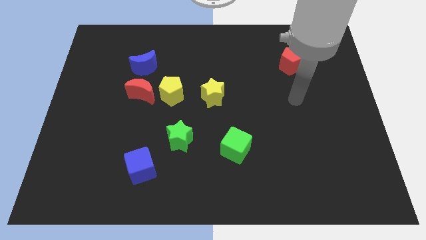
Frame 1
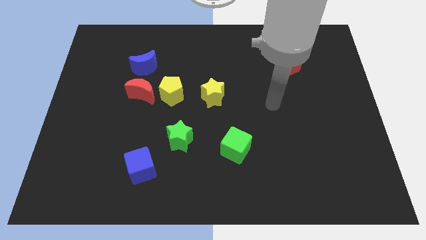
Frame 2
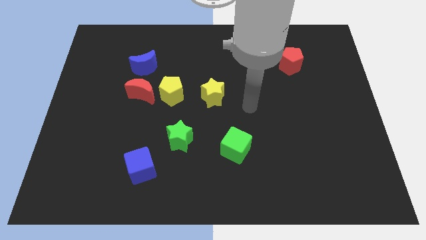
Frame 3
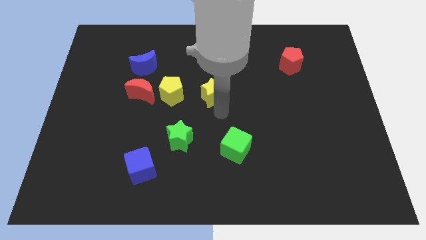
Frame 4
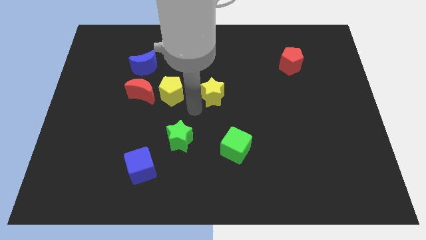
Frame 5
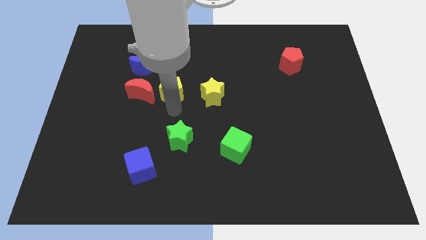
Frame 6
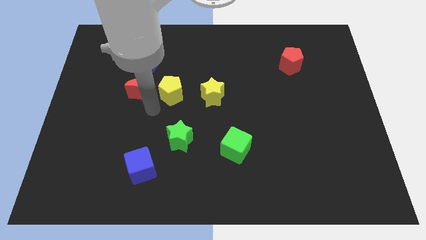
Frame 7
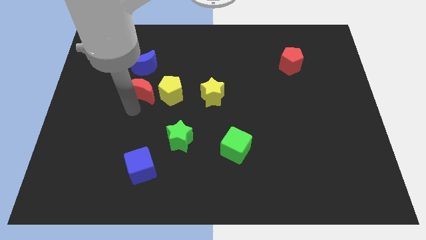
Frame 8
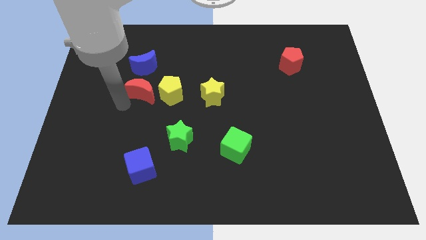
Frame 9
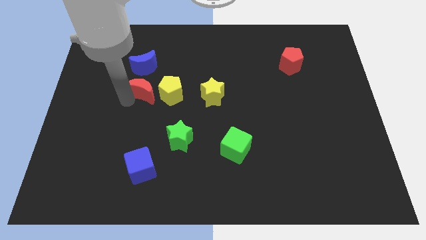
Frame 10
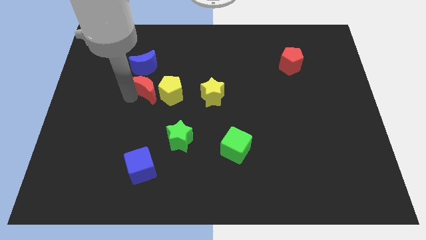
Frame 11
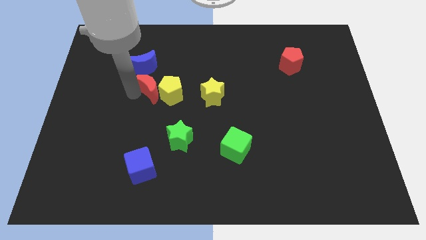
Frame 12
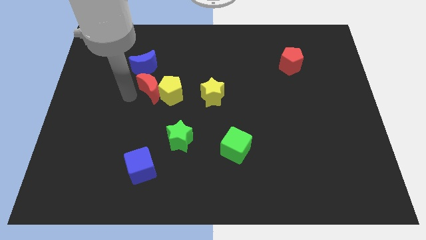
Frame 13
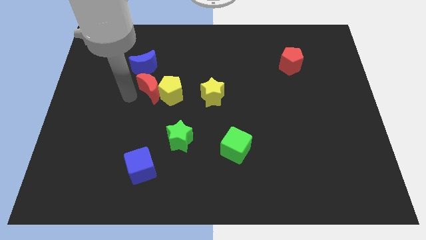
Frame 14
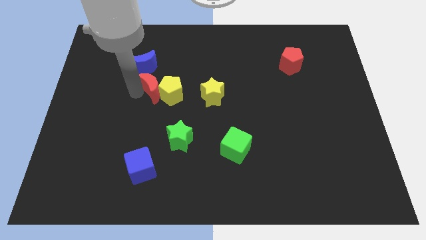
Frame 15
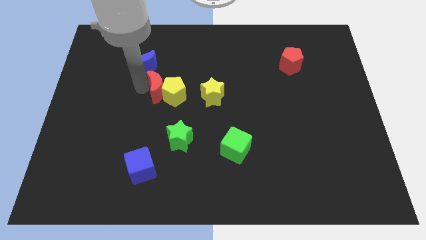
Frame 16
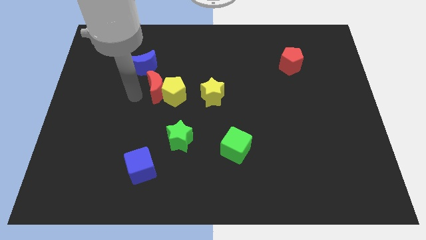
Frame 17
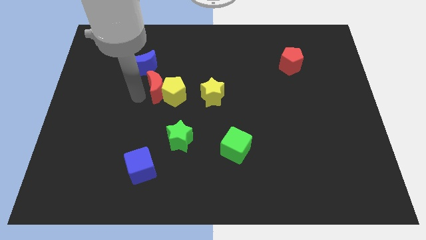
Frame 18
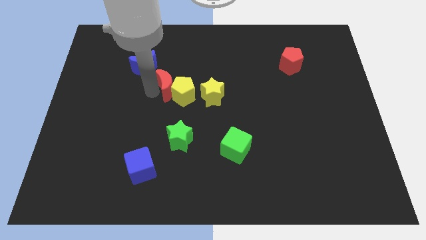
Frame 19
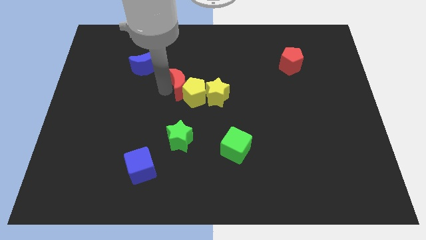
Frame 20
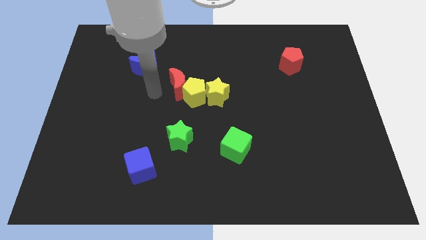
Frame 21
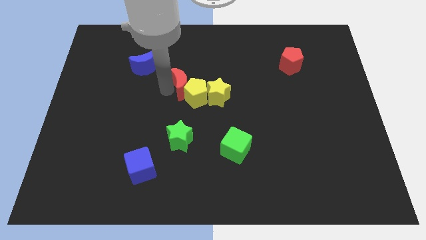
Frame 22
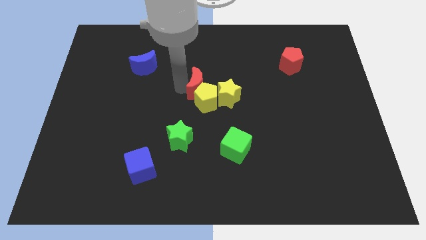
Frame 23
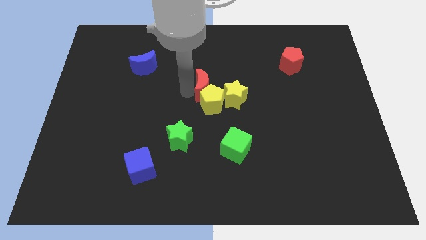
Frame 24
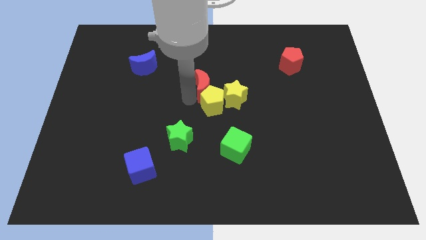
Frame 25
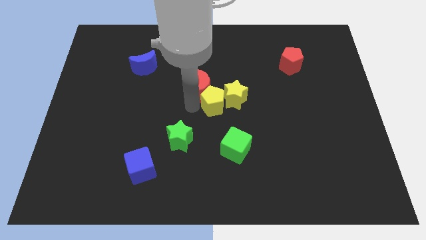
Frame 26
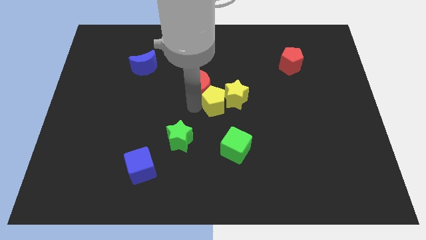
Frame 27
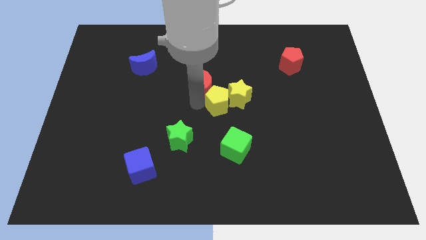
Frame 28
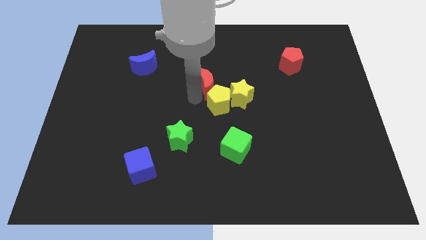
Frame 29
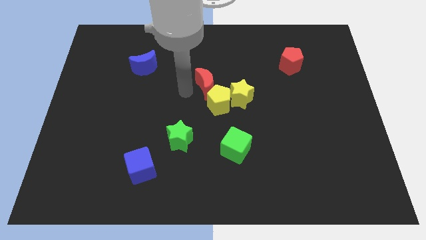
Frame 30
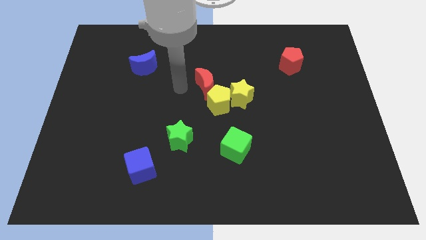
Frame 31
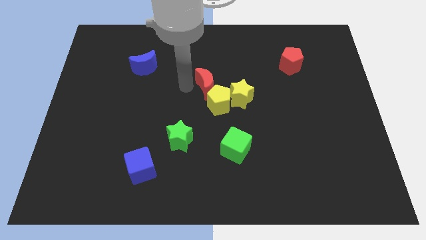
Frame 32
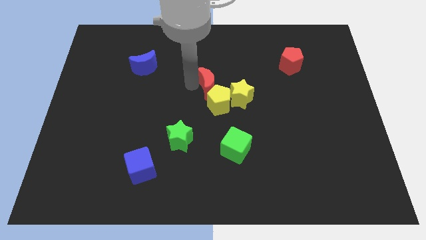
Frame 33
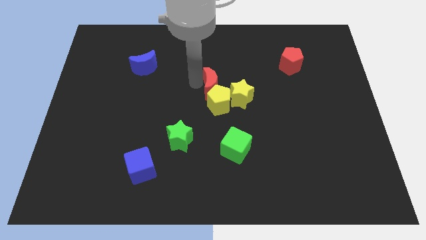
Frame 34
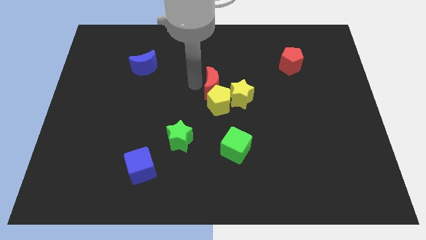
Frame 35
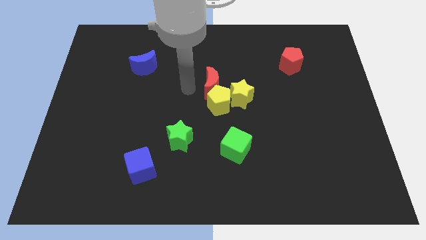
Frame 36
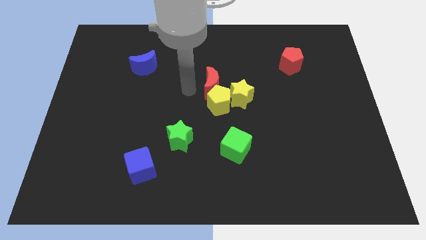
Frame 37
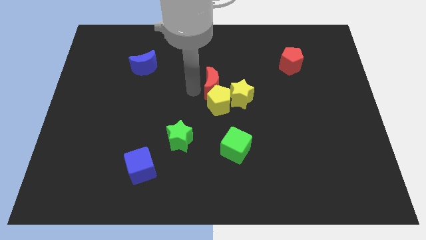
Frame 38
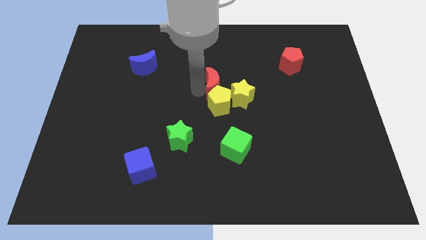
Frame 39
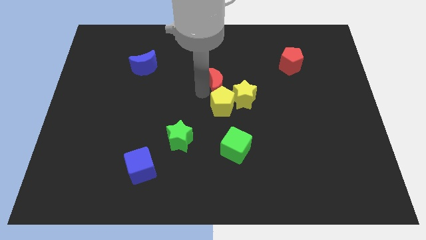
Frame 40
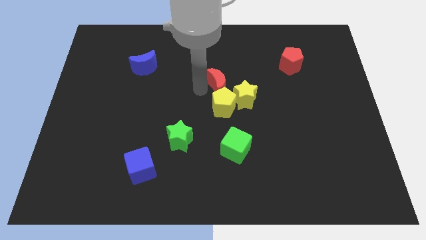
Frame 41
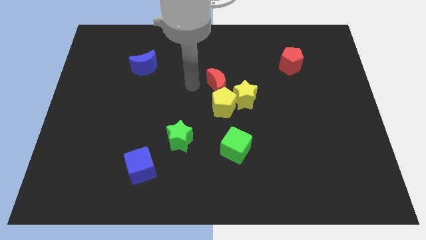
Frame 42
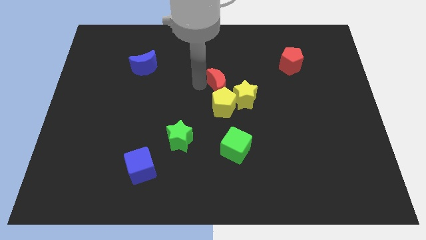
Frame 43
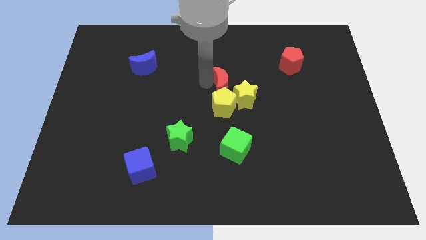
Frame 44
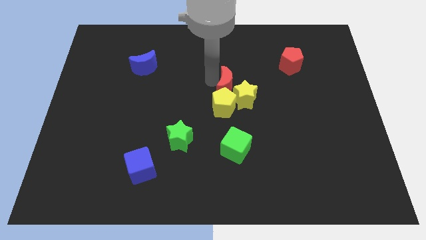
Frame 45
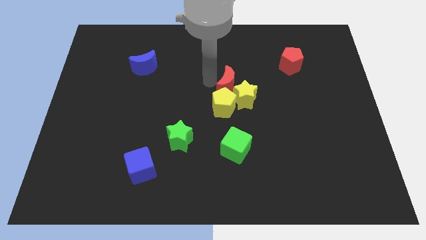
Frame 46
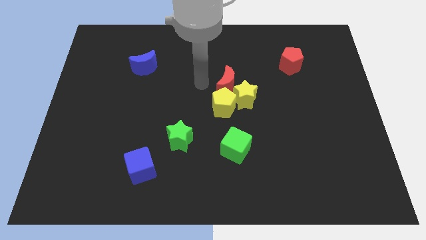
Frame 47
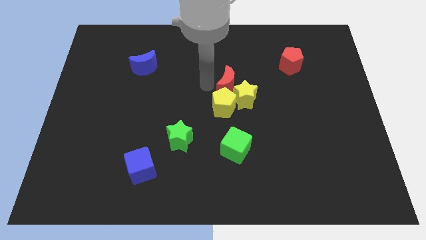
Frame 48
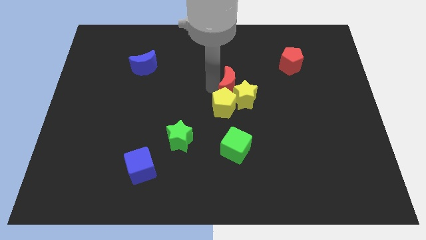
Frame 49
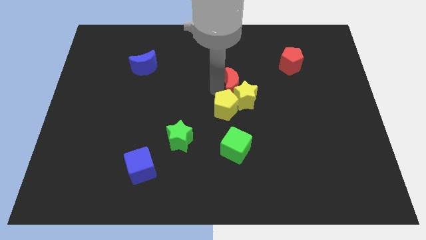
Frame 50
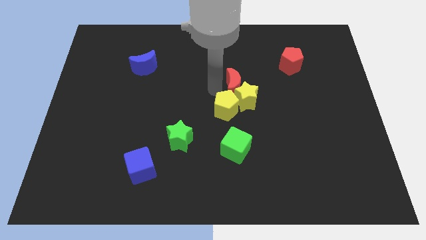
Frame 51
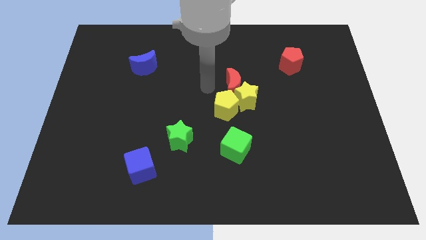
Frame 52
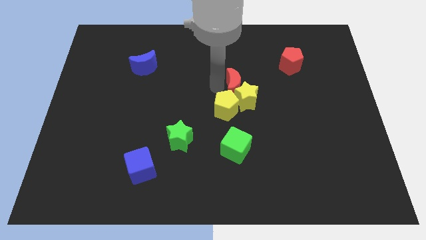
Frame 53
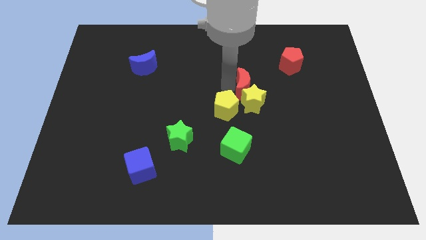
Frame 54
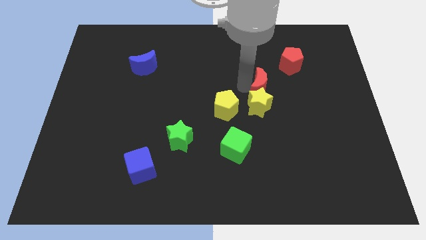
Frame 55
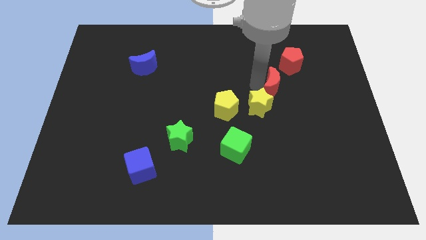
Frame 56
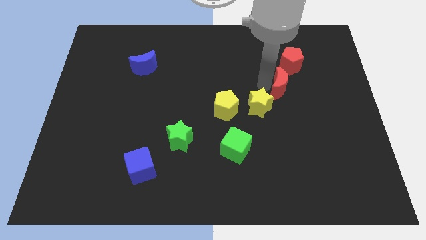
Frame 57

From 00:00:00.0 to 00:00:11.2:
slide the red moon to the bottom side of the red pentagon

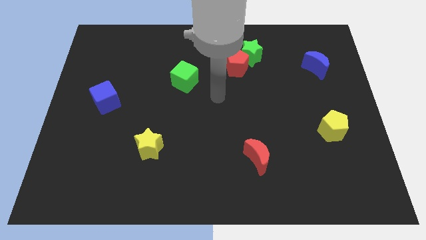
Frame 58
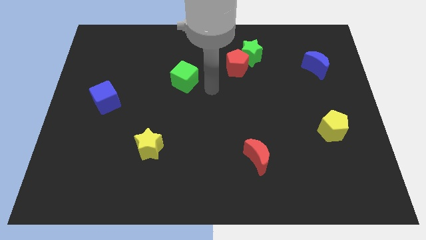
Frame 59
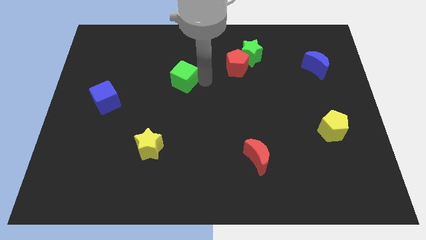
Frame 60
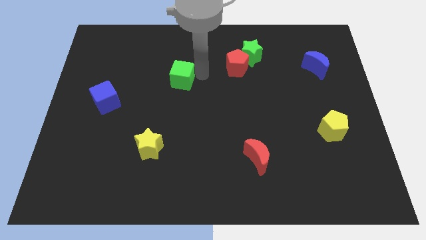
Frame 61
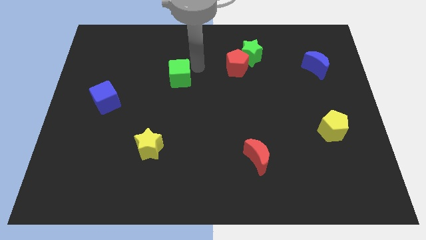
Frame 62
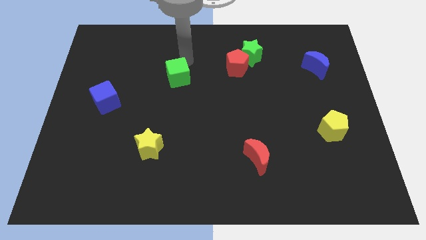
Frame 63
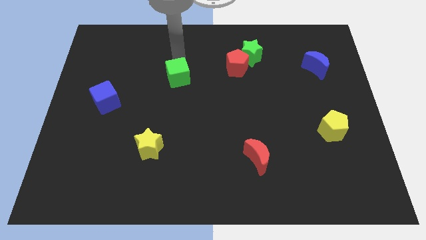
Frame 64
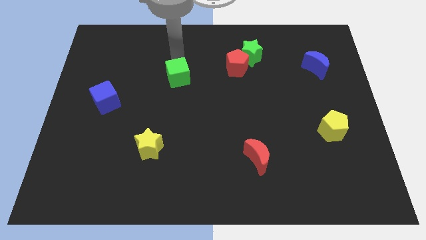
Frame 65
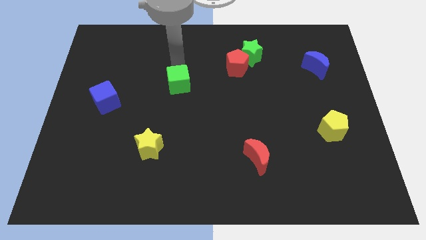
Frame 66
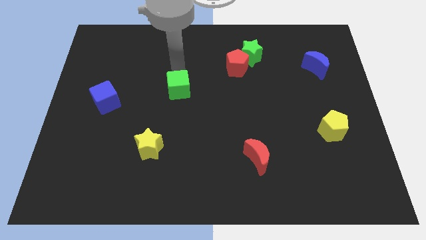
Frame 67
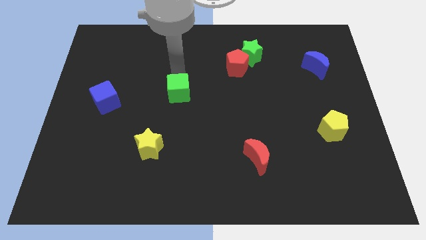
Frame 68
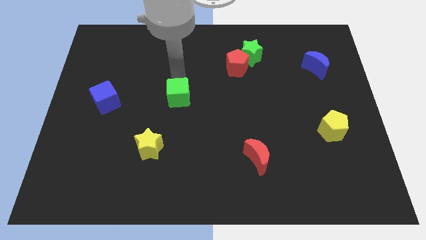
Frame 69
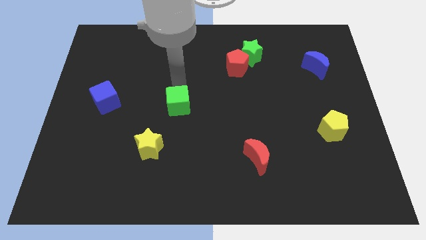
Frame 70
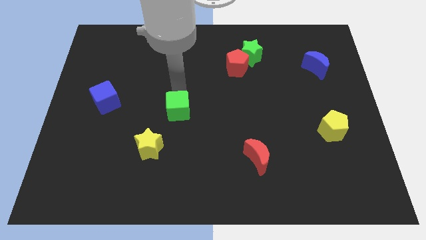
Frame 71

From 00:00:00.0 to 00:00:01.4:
put the green cube to the top right side of the yellow star
